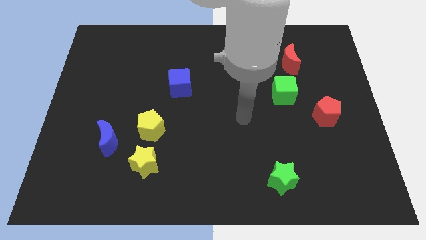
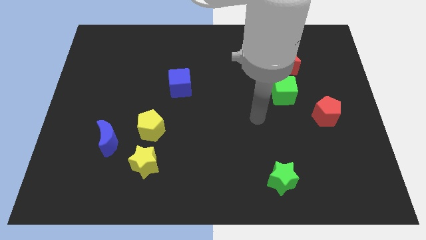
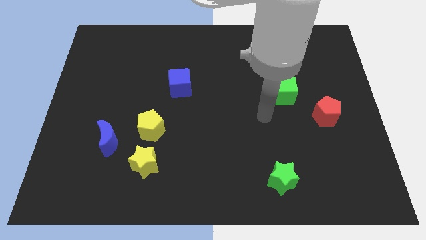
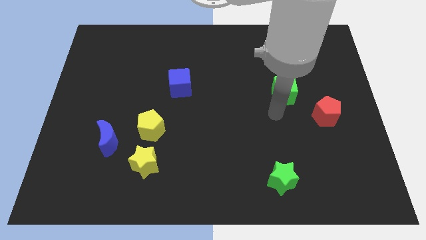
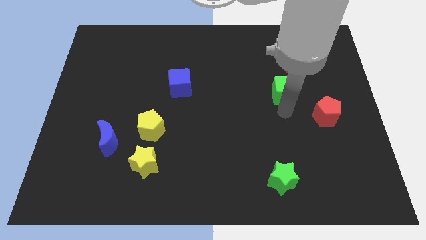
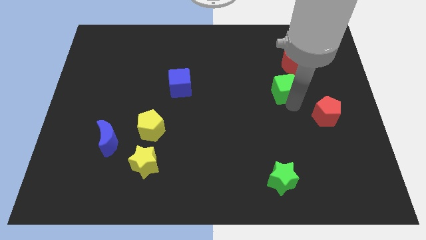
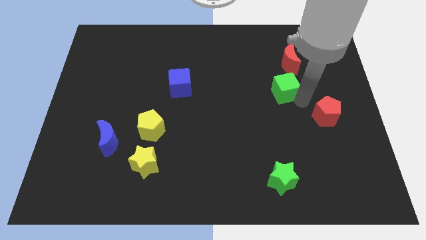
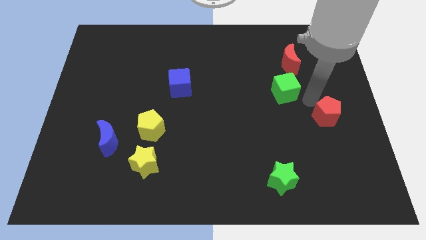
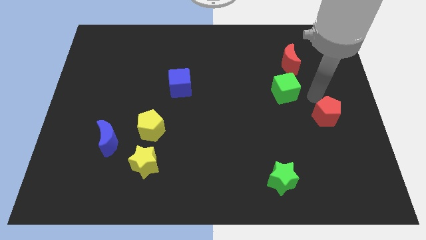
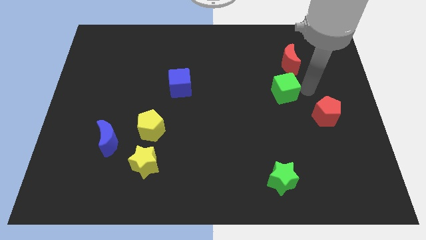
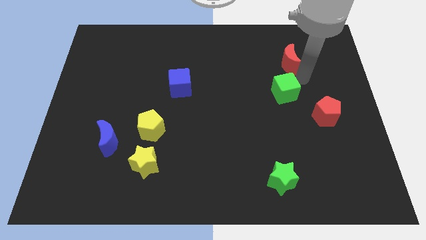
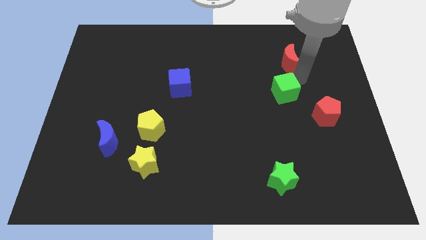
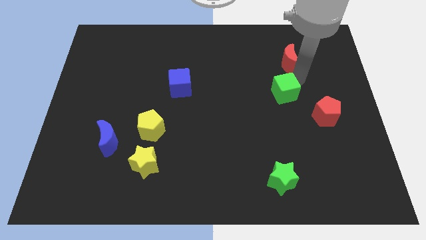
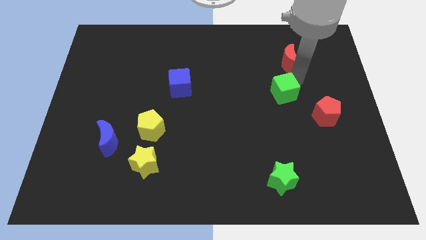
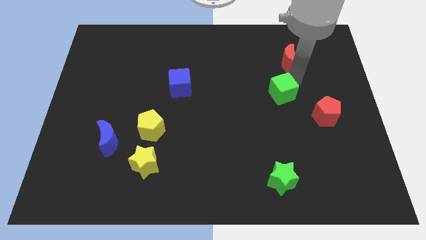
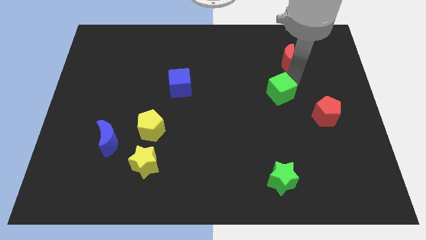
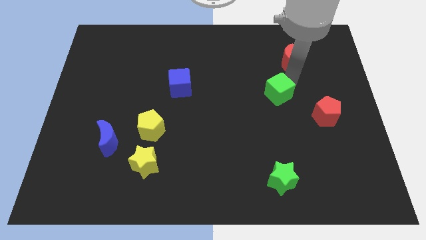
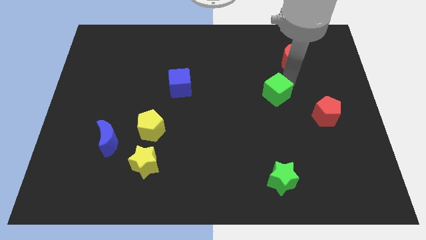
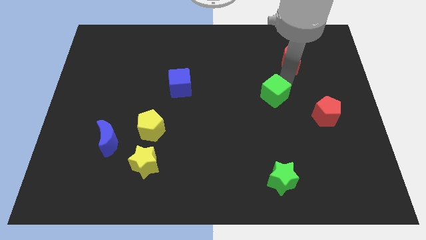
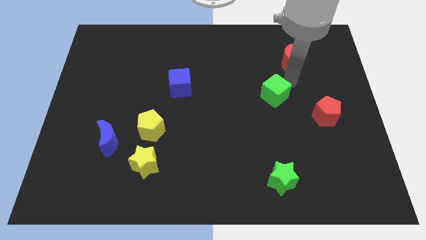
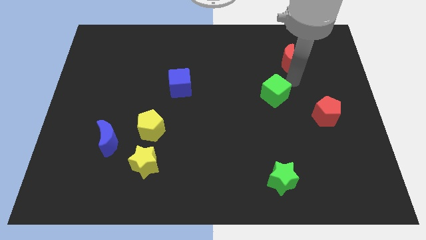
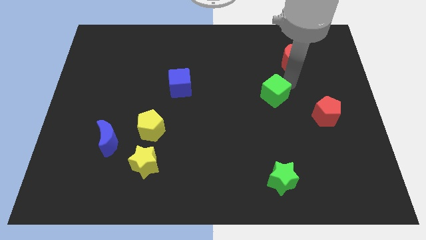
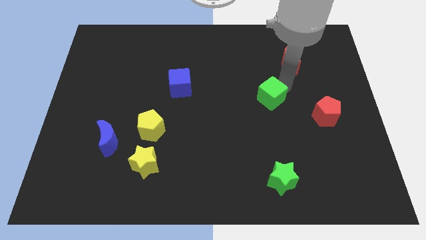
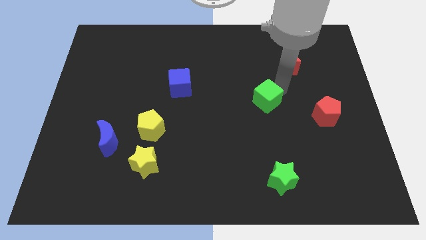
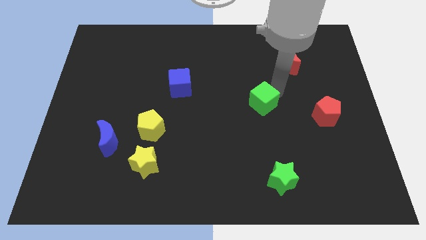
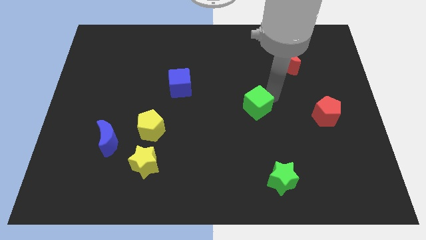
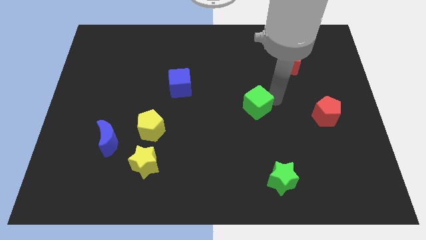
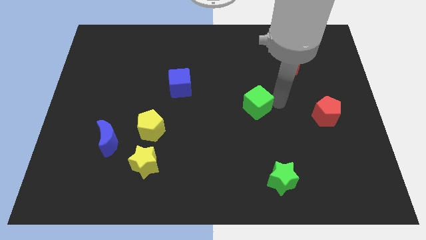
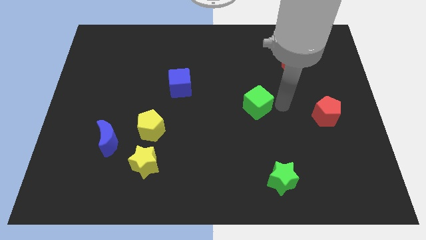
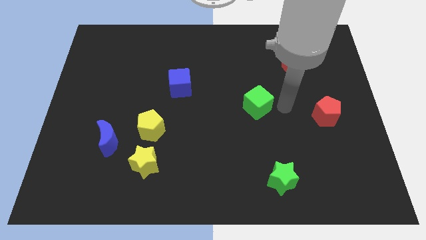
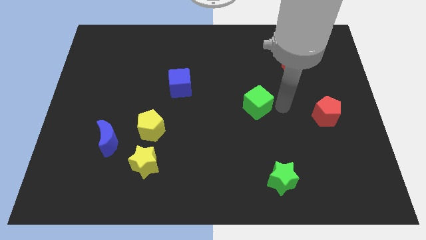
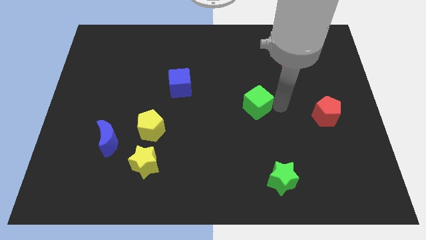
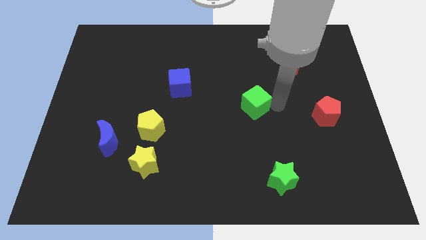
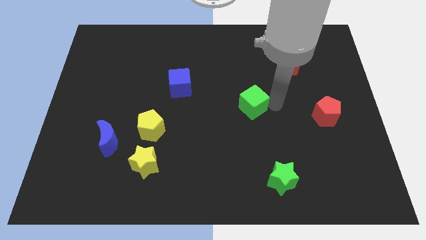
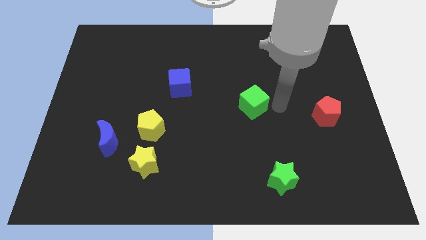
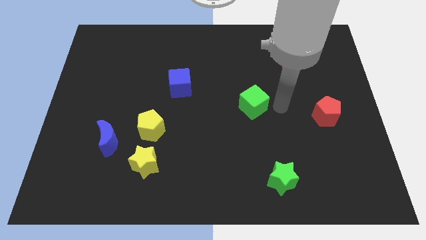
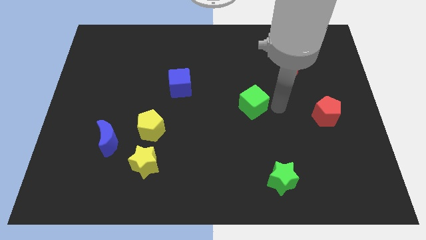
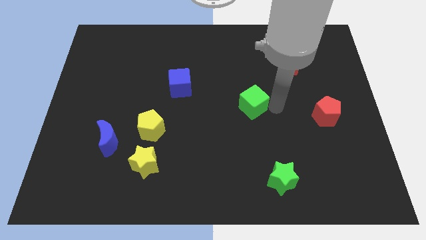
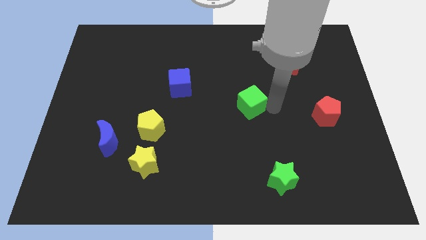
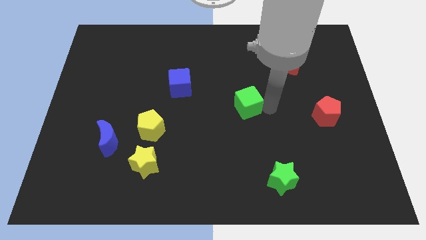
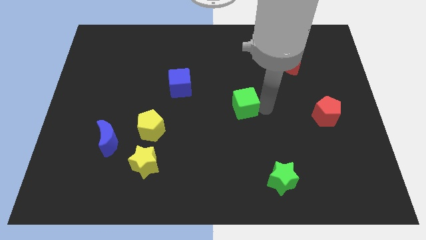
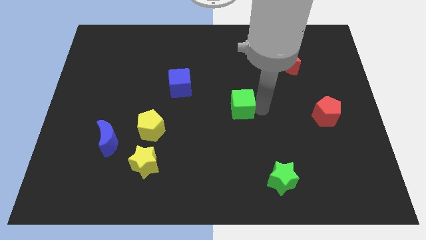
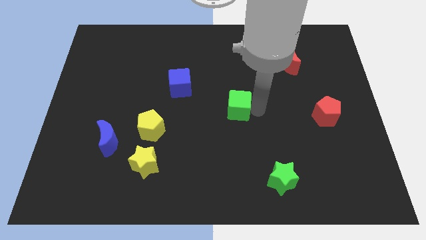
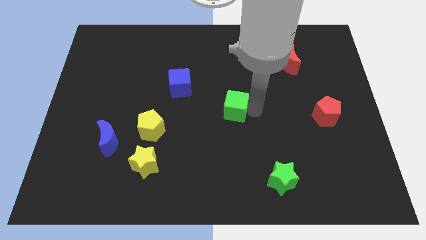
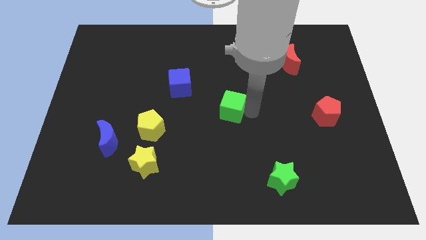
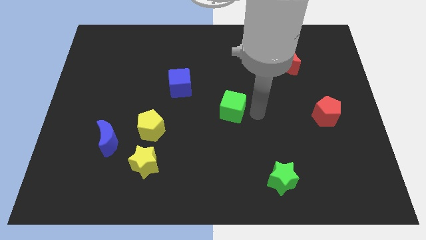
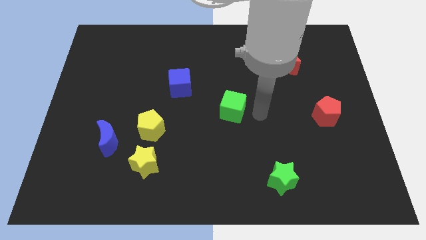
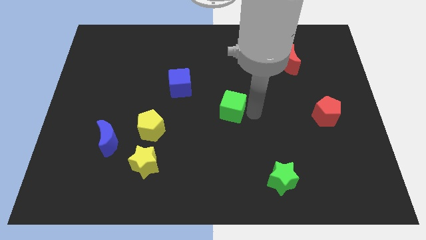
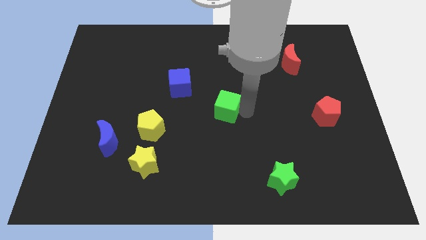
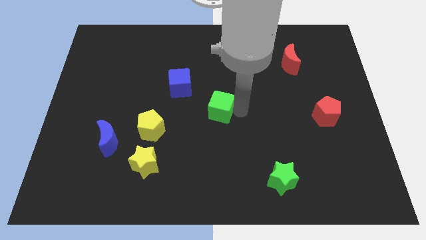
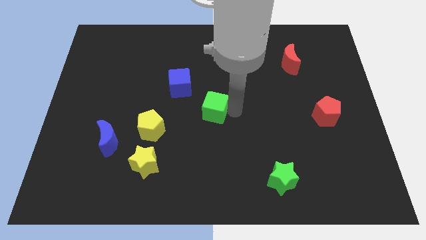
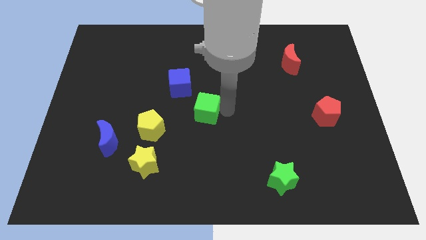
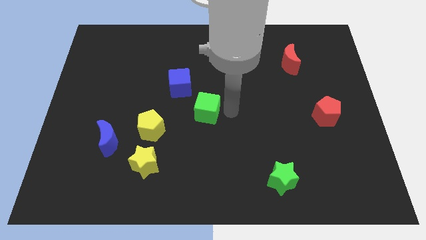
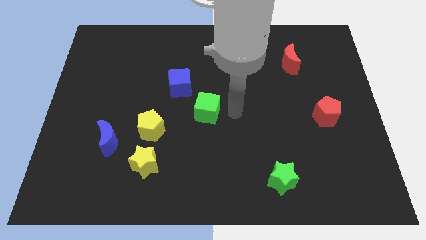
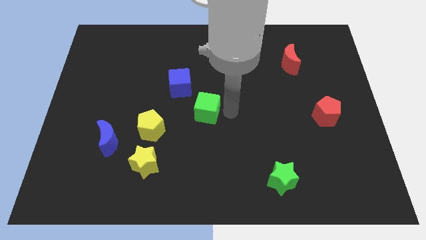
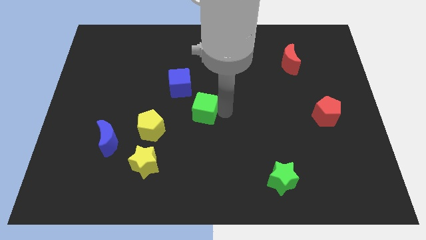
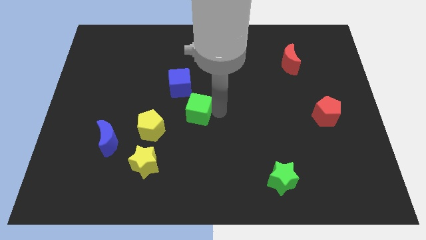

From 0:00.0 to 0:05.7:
slide the green cube to the top right side of the yellow pentagon

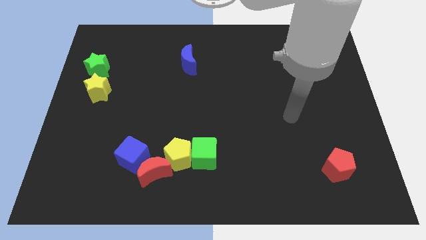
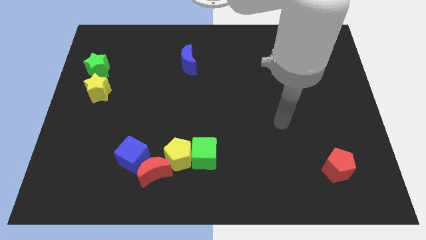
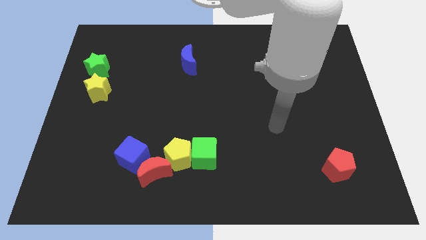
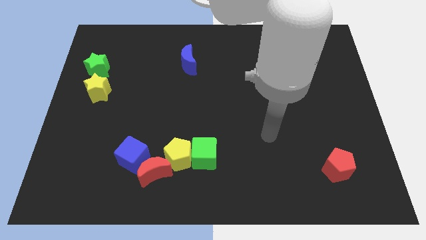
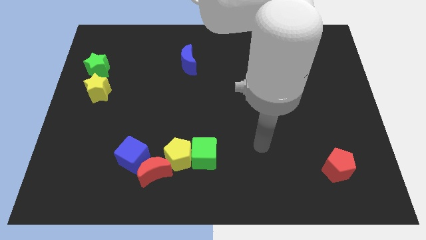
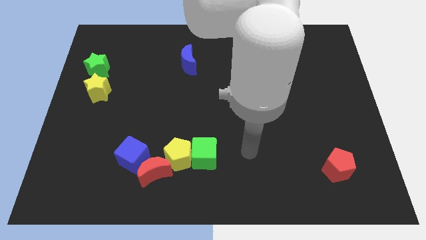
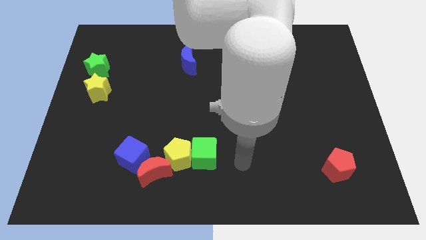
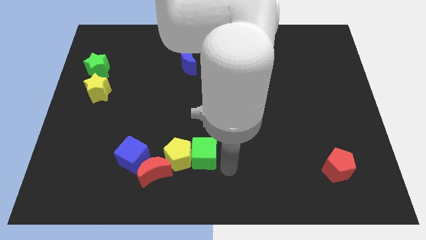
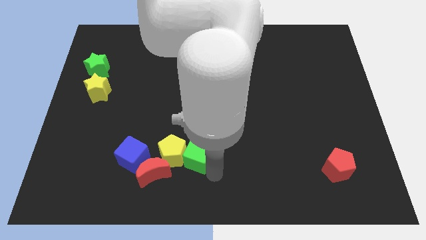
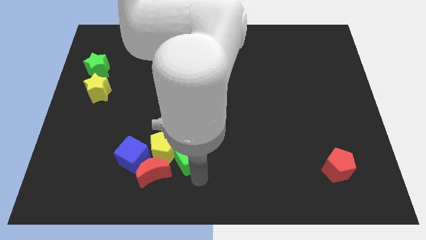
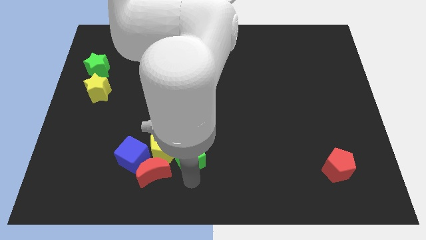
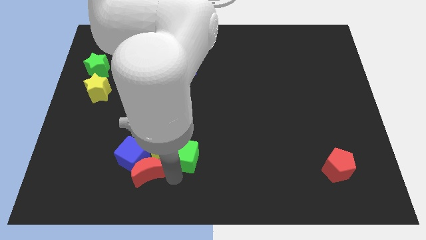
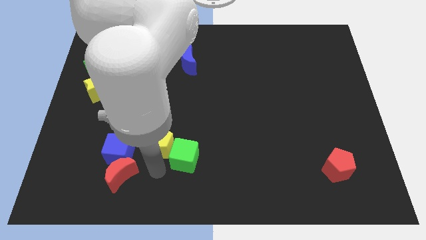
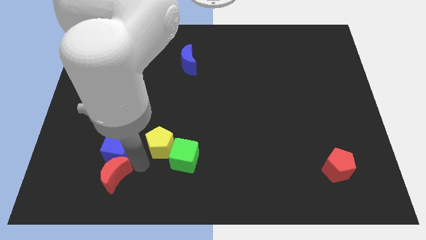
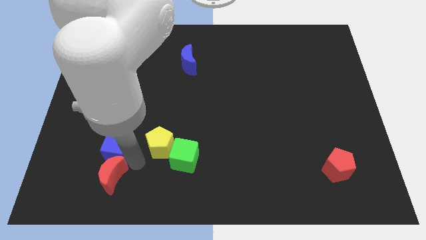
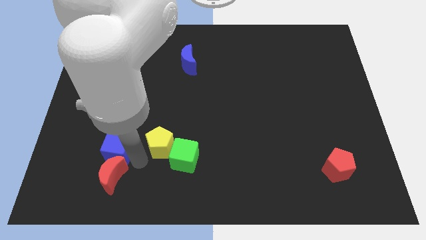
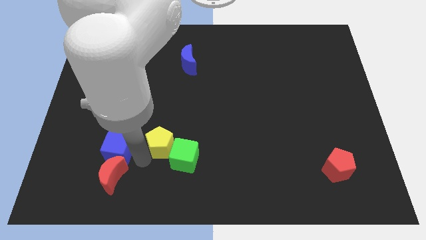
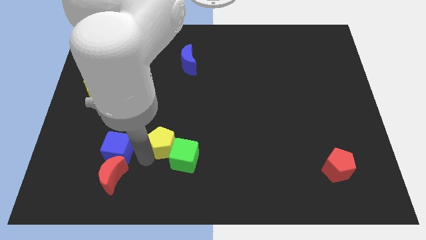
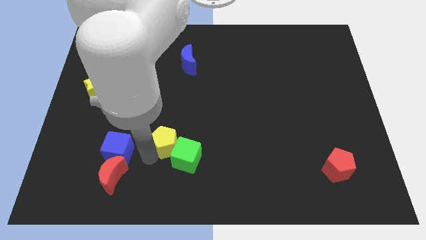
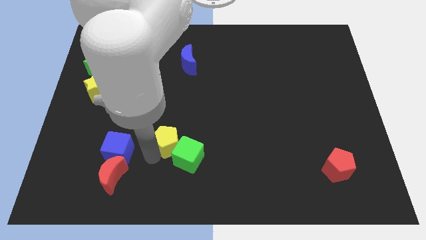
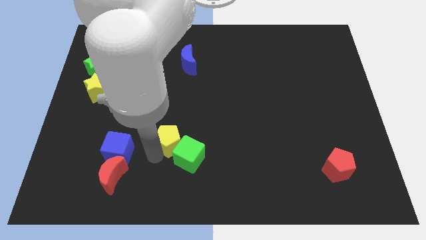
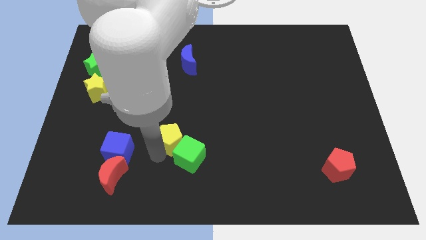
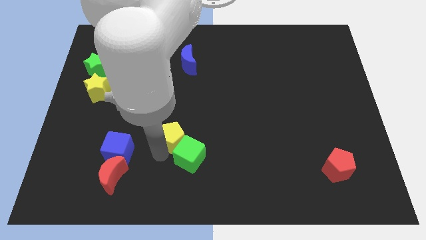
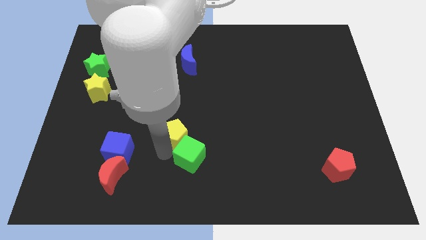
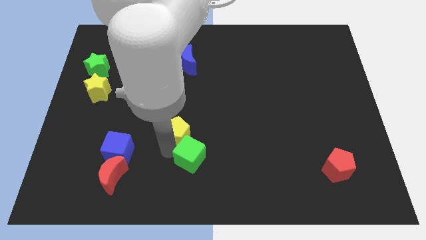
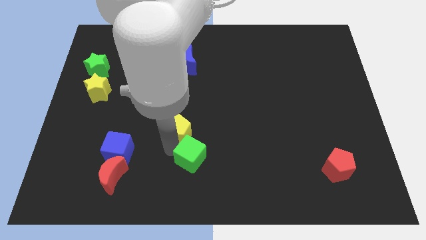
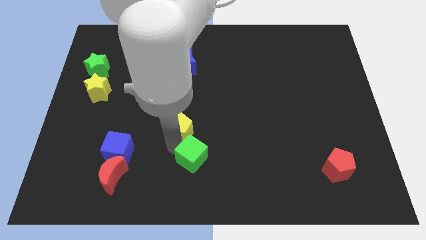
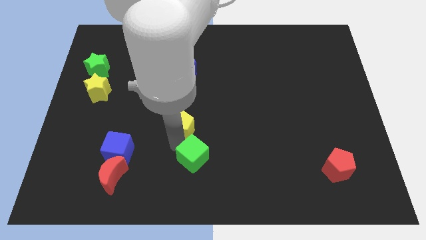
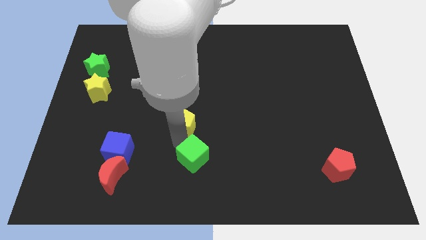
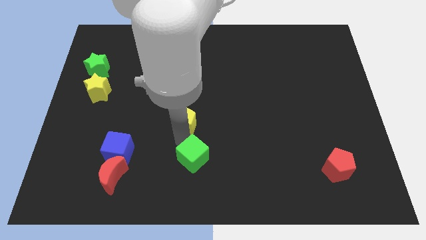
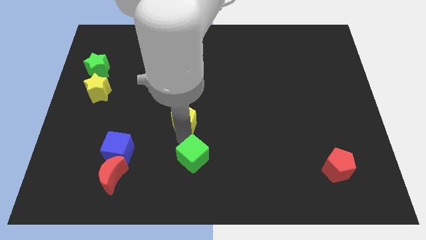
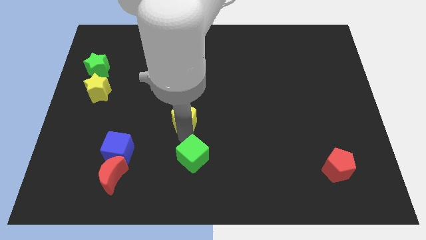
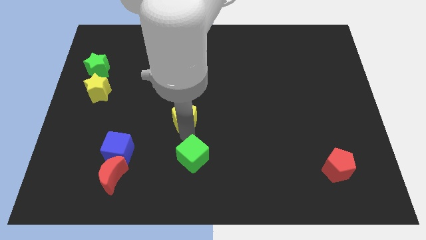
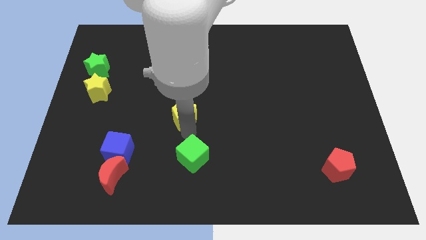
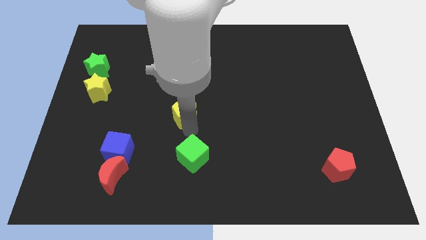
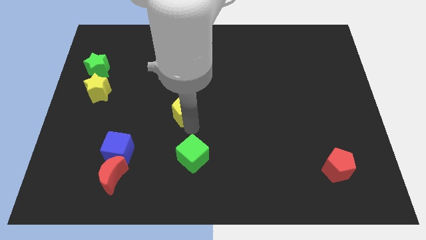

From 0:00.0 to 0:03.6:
slide the yellow pentagon below the blue moon
